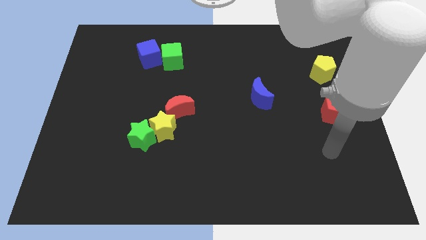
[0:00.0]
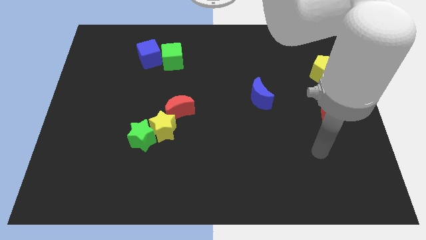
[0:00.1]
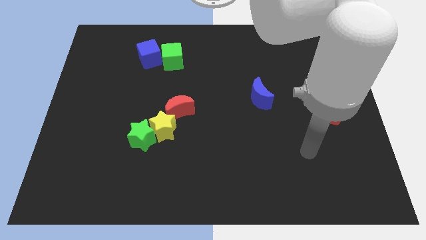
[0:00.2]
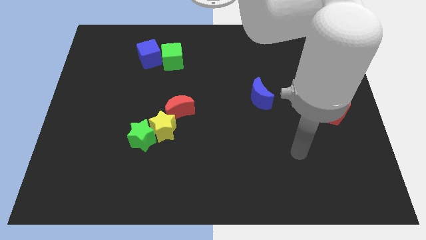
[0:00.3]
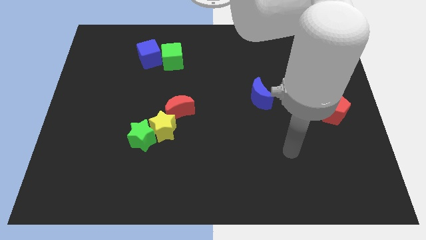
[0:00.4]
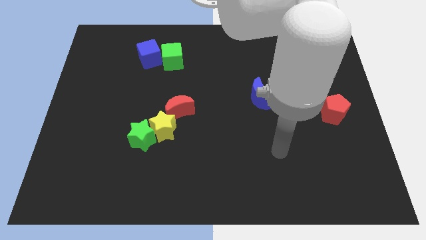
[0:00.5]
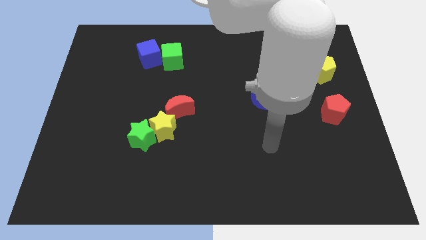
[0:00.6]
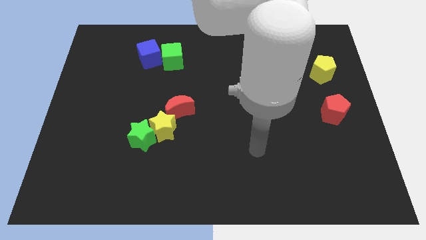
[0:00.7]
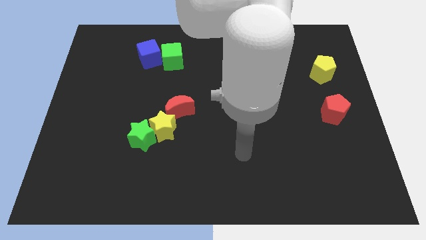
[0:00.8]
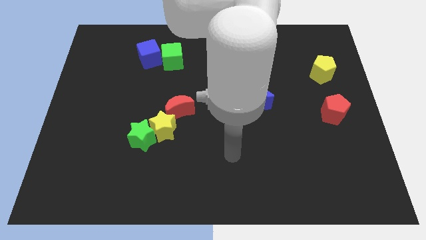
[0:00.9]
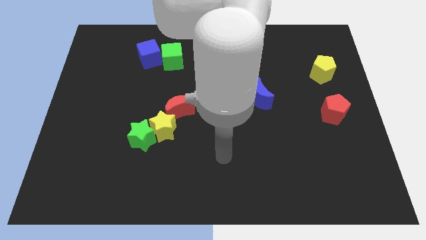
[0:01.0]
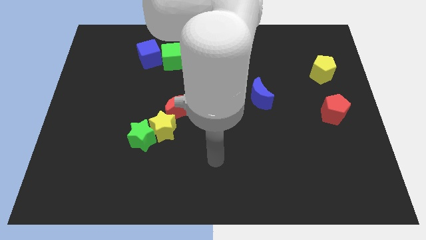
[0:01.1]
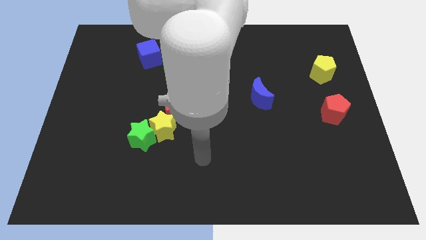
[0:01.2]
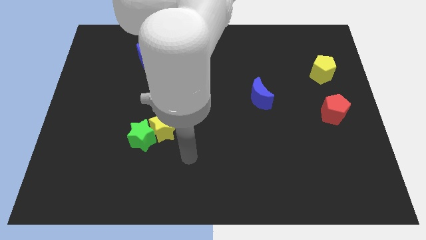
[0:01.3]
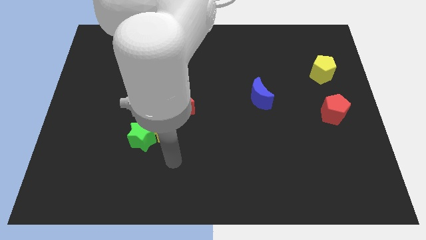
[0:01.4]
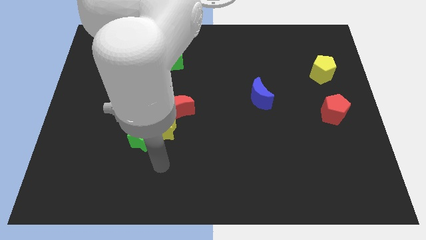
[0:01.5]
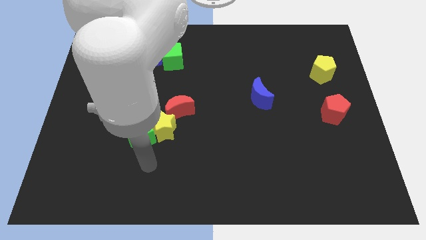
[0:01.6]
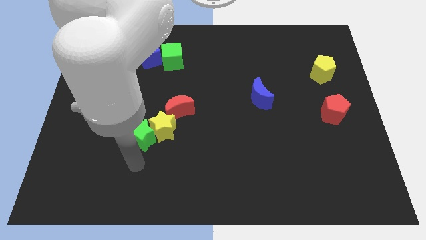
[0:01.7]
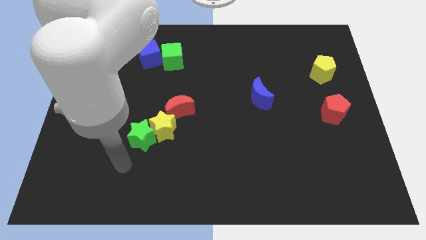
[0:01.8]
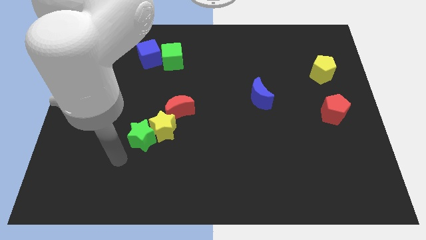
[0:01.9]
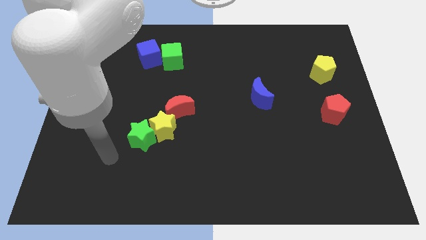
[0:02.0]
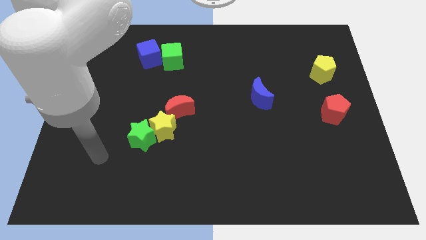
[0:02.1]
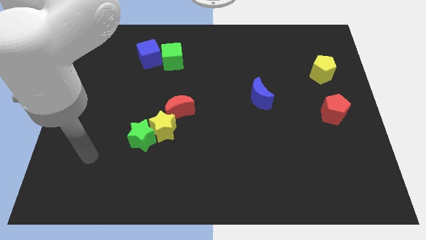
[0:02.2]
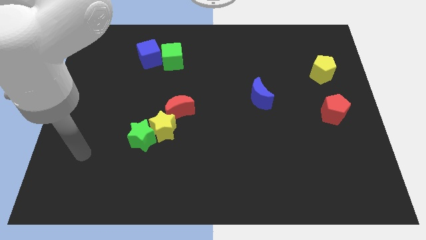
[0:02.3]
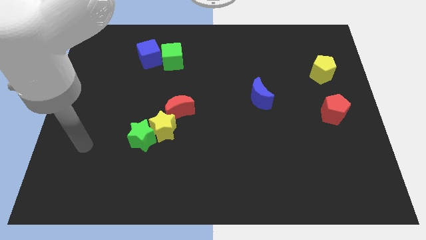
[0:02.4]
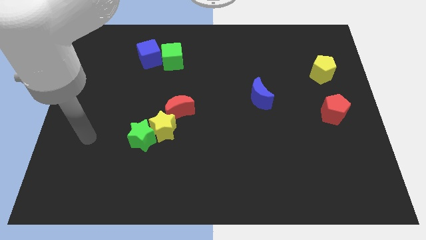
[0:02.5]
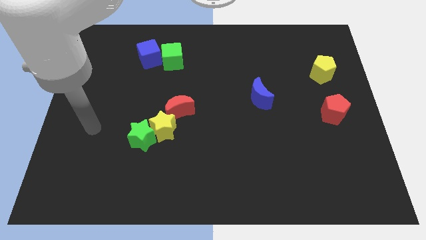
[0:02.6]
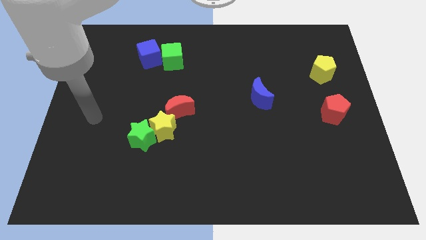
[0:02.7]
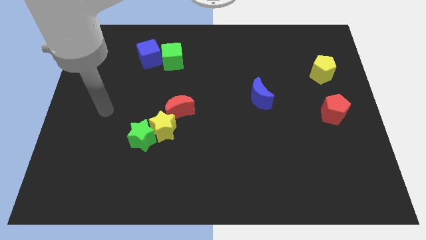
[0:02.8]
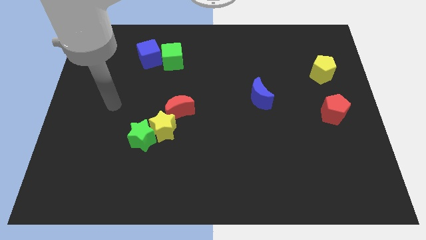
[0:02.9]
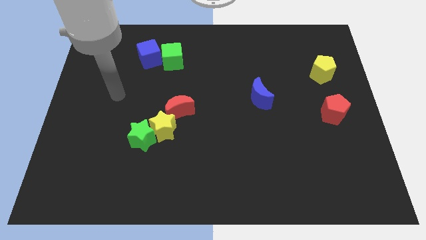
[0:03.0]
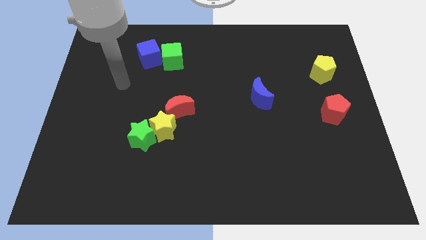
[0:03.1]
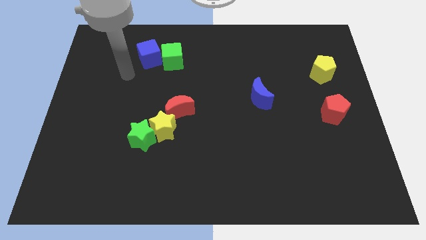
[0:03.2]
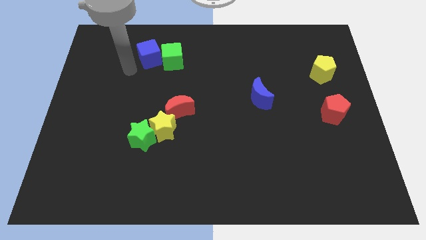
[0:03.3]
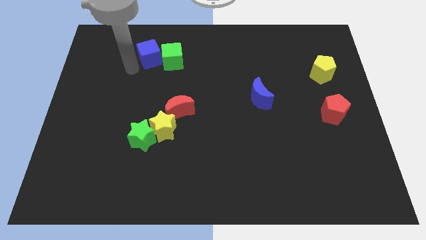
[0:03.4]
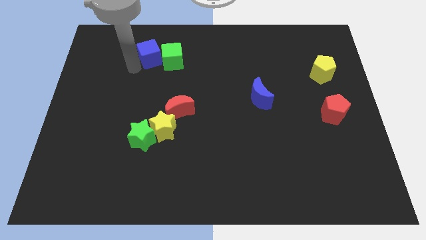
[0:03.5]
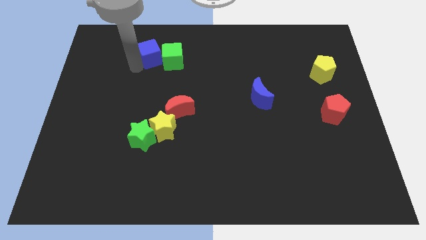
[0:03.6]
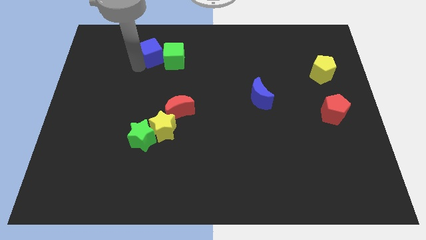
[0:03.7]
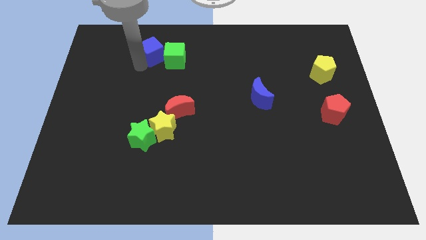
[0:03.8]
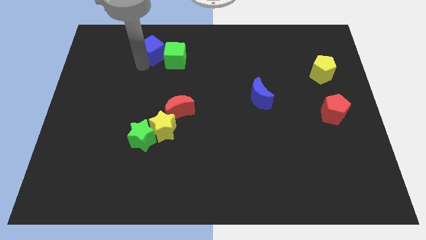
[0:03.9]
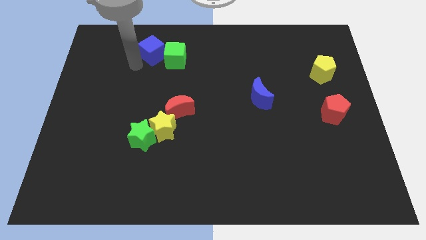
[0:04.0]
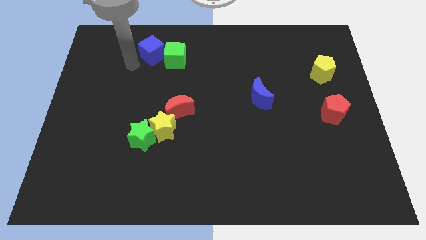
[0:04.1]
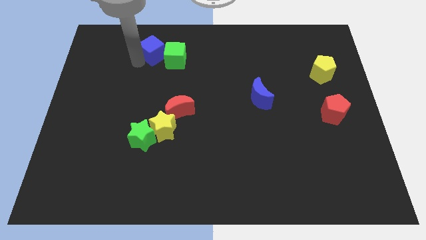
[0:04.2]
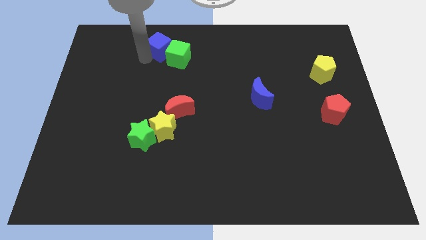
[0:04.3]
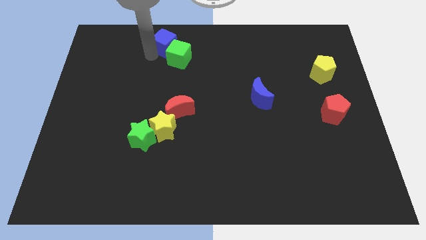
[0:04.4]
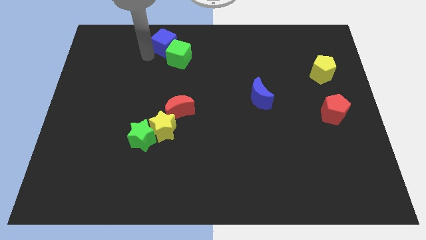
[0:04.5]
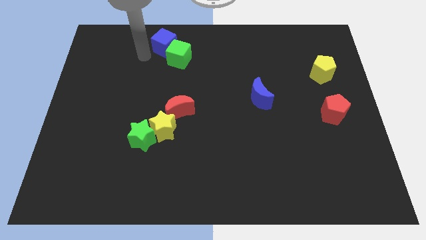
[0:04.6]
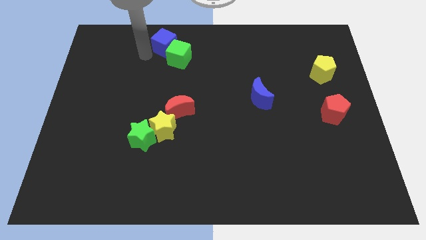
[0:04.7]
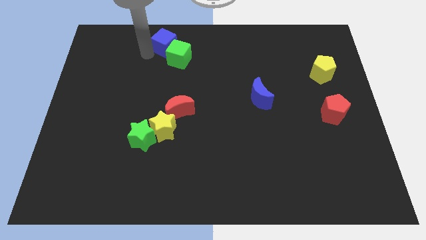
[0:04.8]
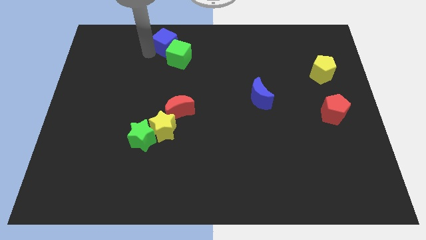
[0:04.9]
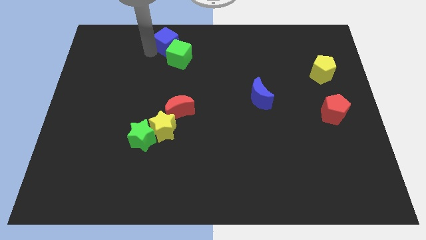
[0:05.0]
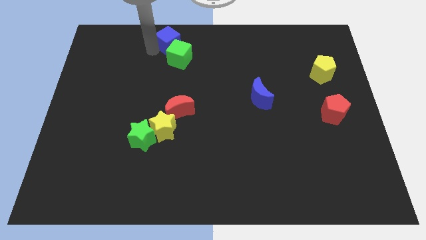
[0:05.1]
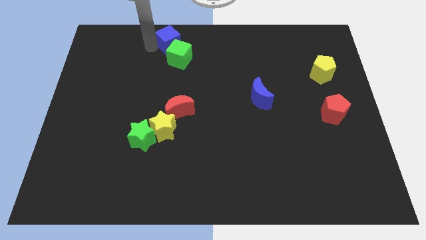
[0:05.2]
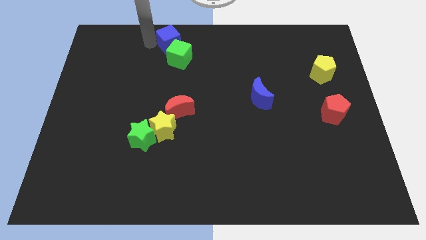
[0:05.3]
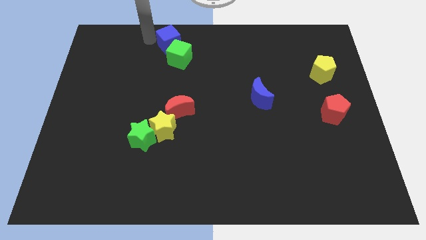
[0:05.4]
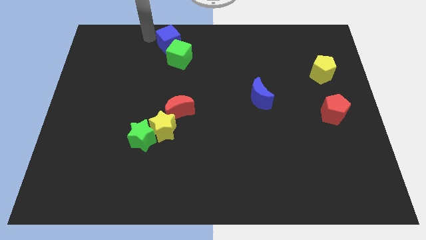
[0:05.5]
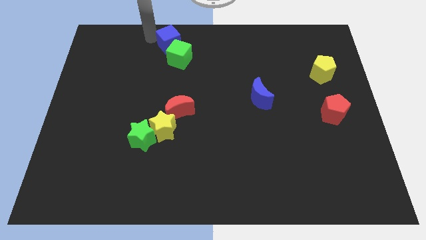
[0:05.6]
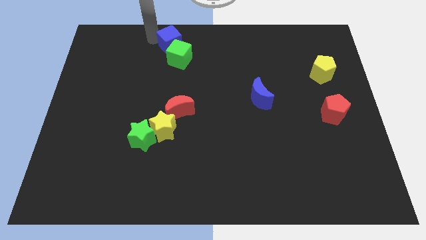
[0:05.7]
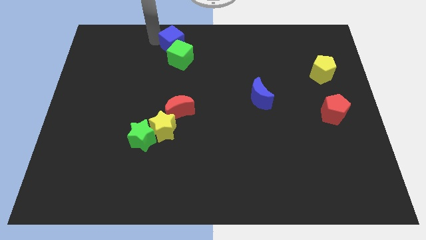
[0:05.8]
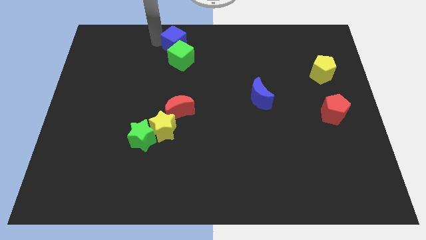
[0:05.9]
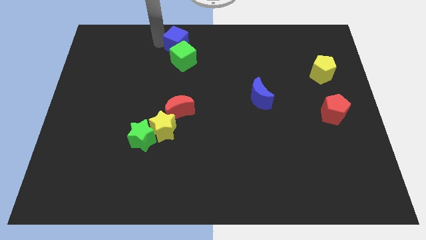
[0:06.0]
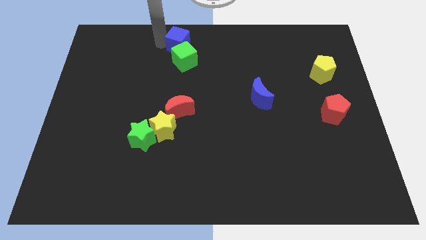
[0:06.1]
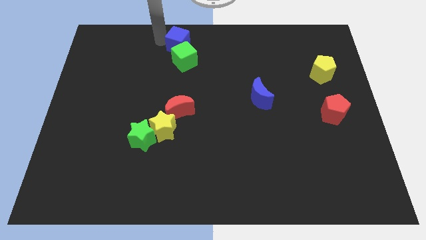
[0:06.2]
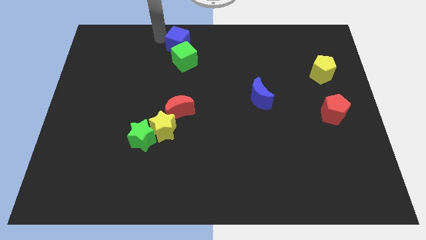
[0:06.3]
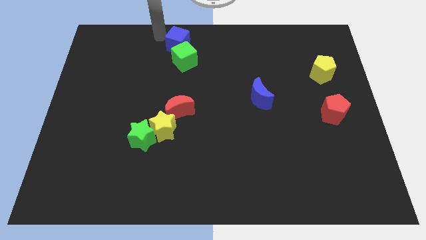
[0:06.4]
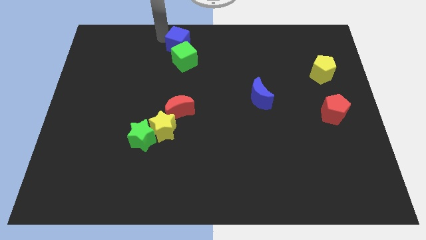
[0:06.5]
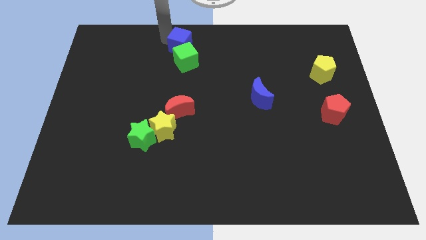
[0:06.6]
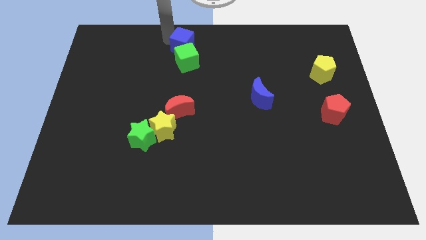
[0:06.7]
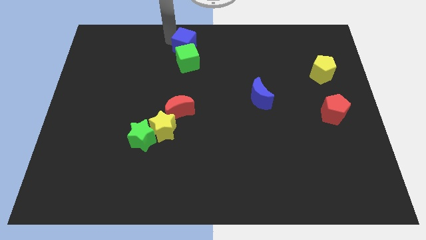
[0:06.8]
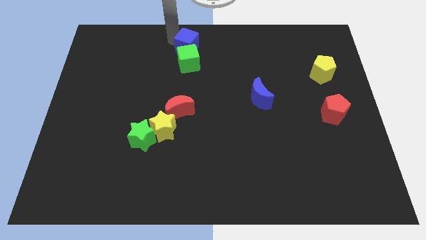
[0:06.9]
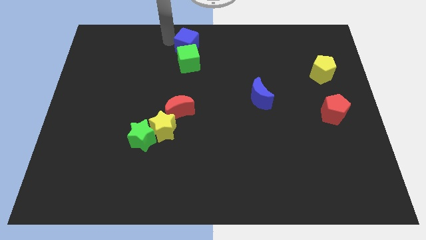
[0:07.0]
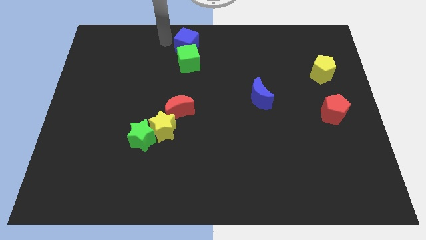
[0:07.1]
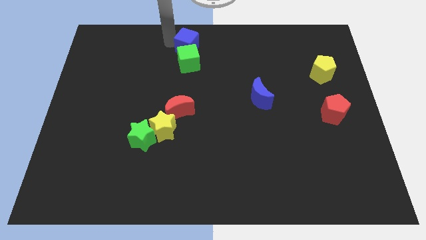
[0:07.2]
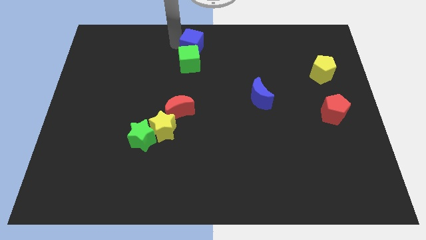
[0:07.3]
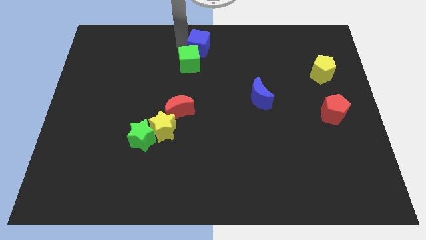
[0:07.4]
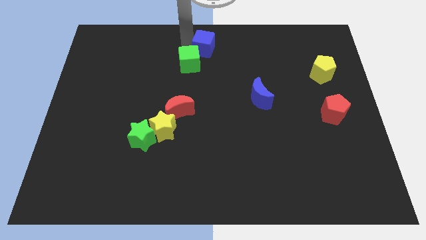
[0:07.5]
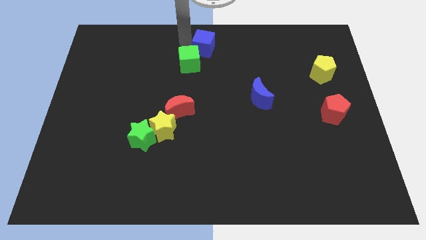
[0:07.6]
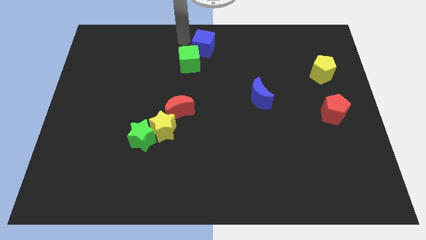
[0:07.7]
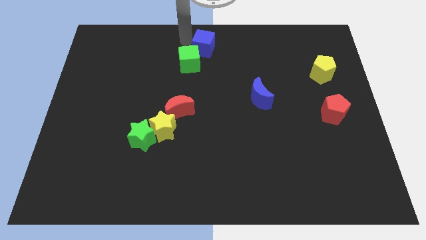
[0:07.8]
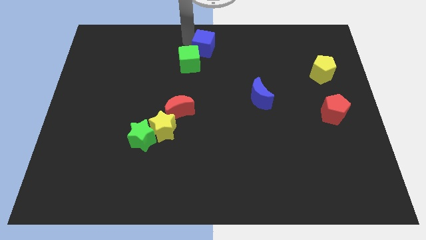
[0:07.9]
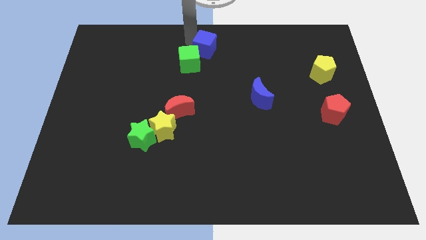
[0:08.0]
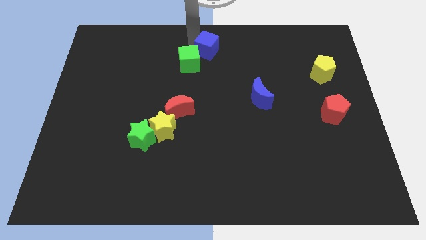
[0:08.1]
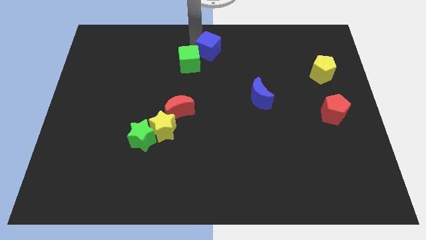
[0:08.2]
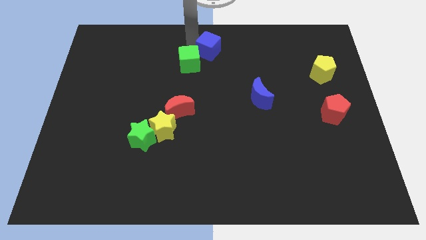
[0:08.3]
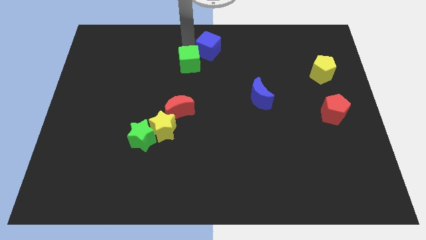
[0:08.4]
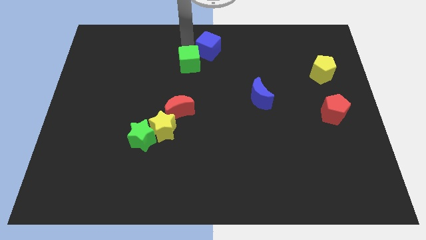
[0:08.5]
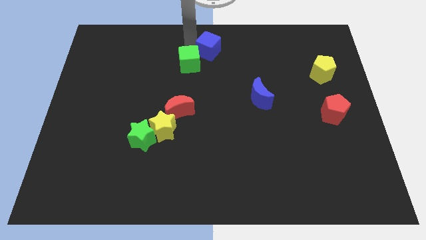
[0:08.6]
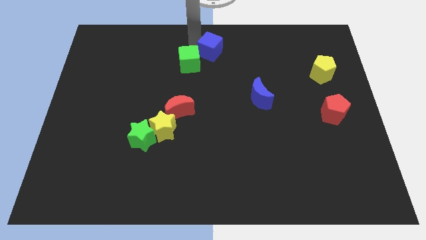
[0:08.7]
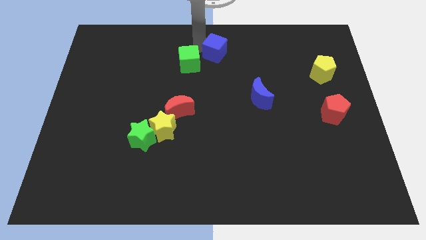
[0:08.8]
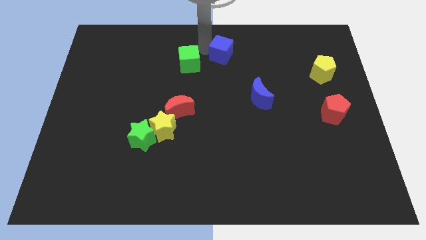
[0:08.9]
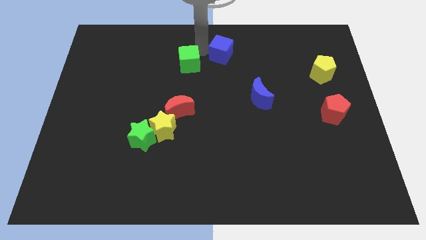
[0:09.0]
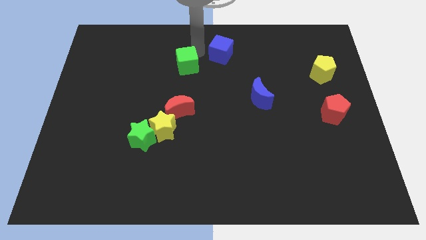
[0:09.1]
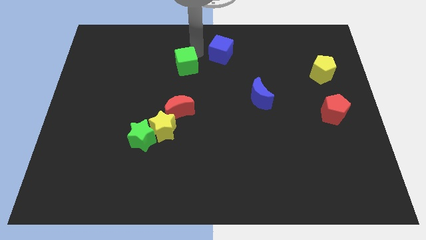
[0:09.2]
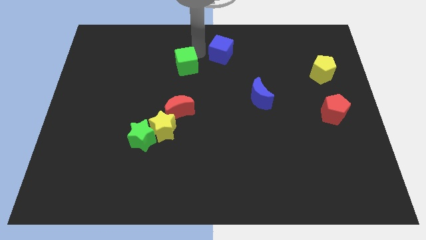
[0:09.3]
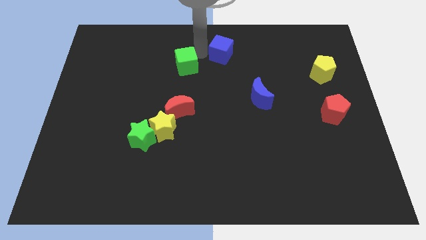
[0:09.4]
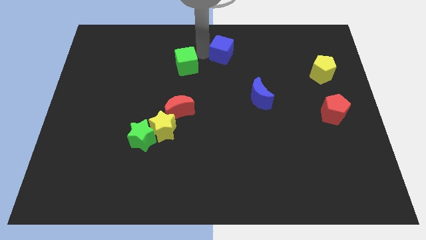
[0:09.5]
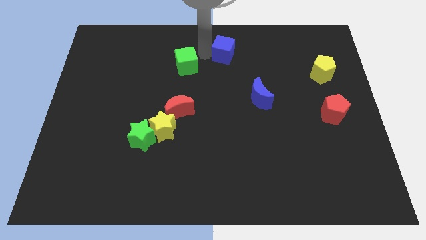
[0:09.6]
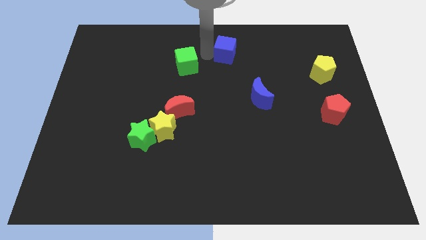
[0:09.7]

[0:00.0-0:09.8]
push the blue cube to the right
